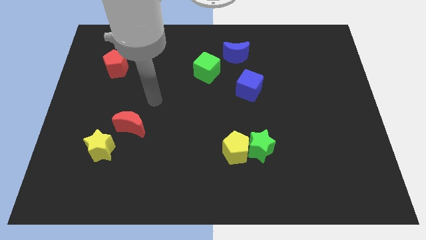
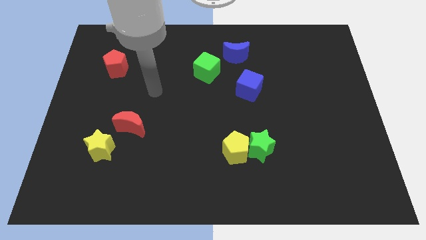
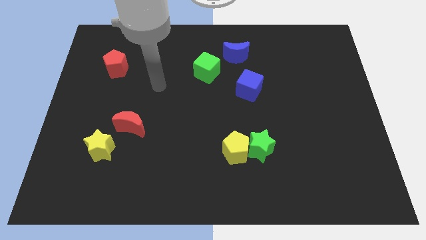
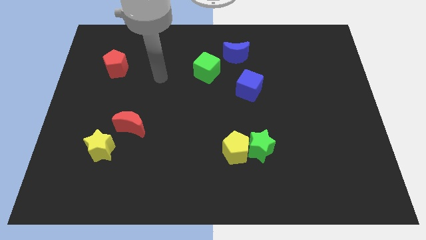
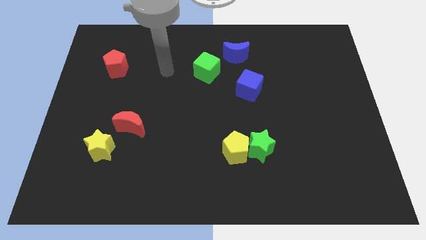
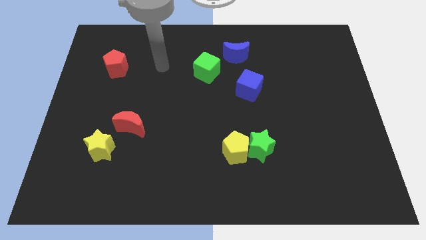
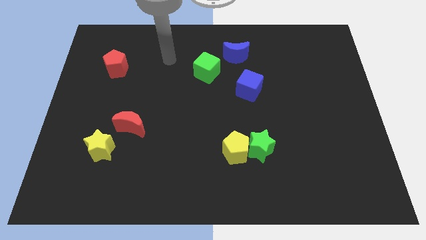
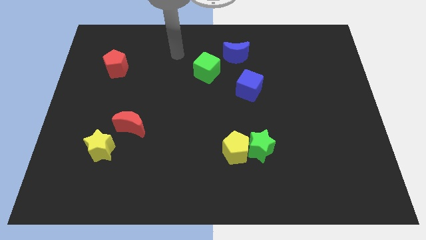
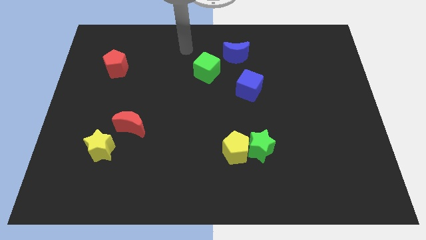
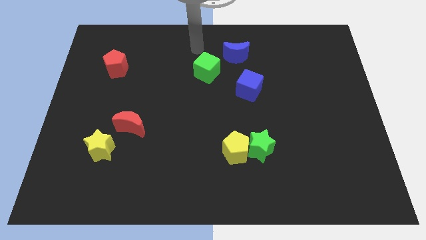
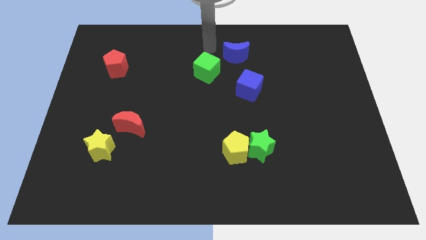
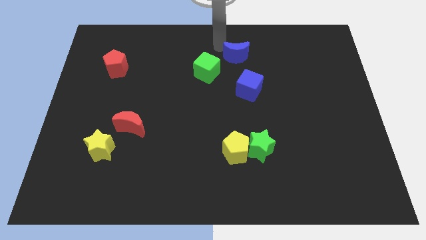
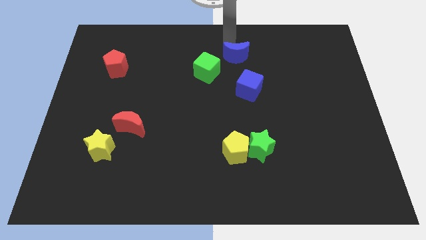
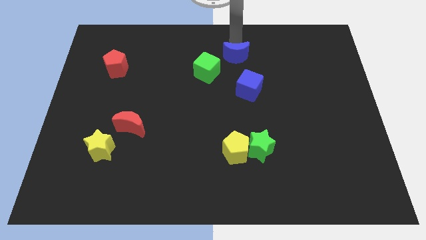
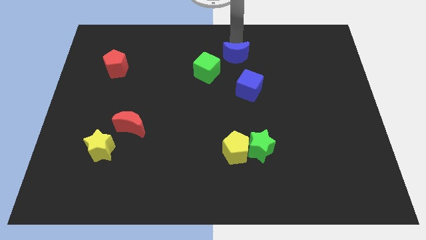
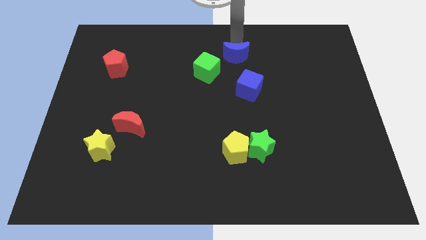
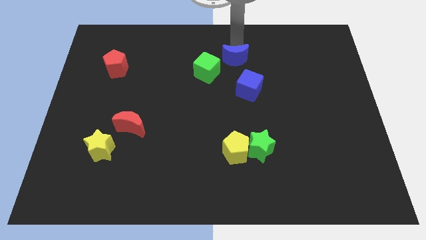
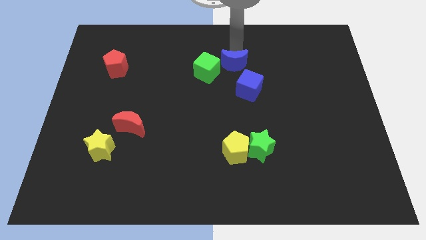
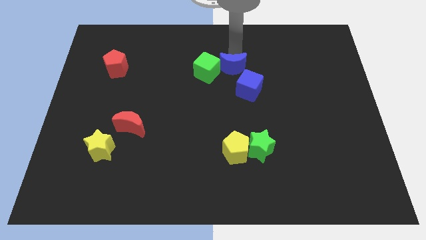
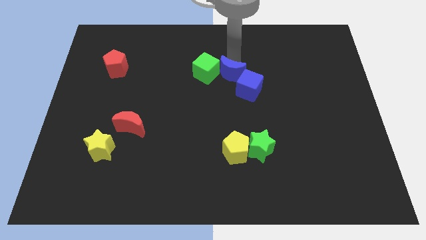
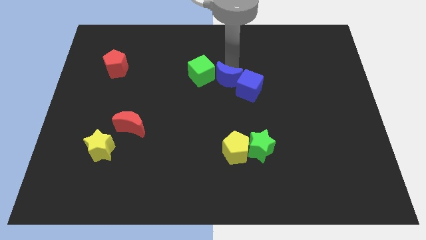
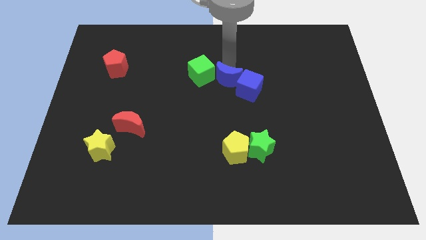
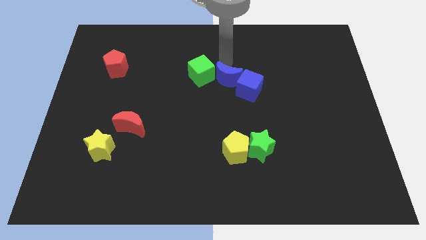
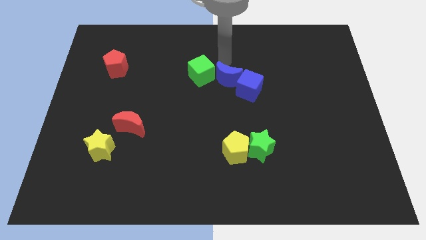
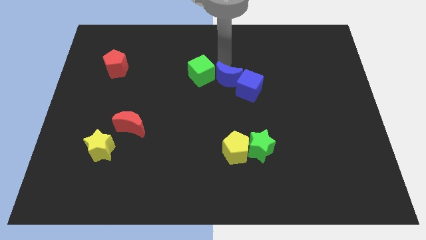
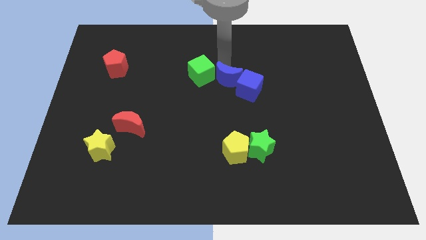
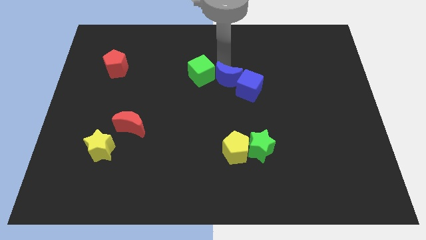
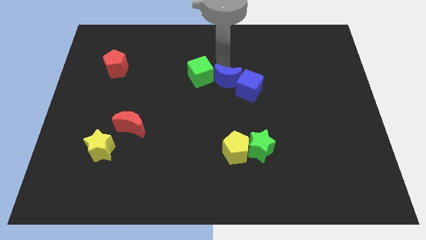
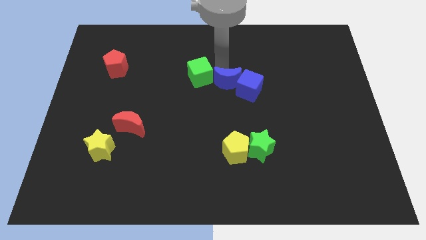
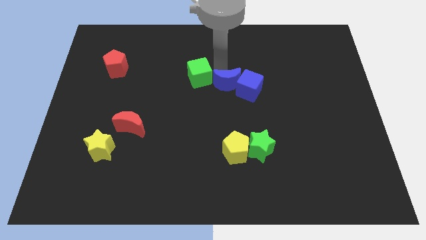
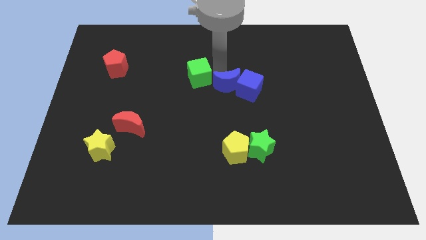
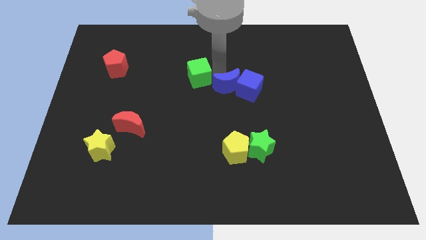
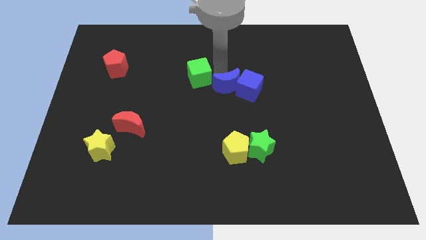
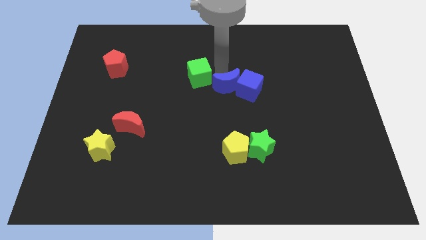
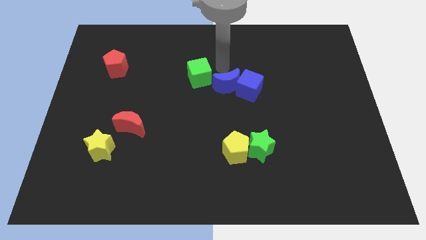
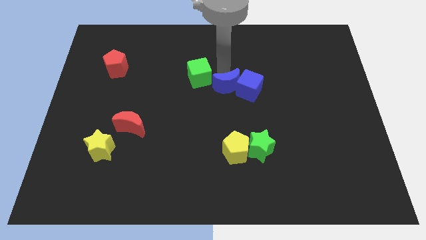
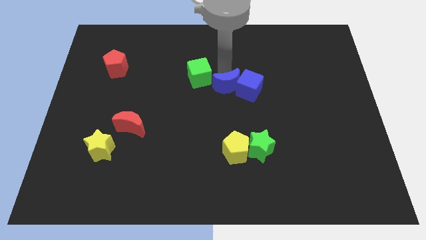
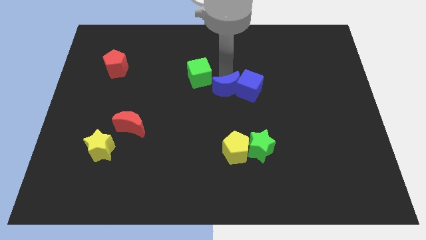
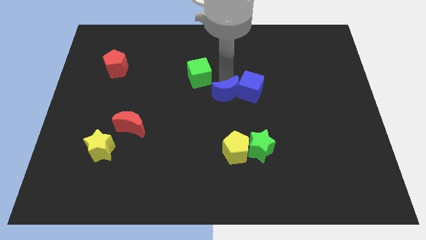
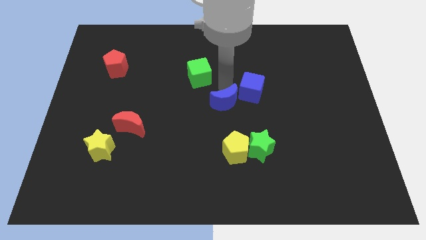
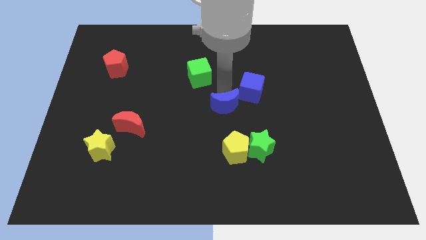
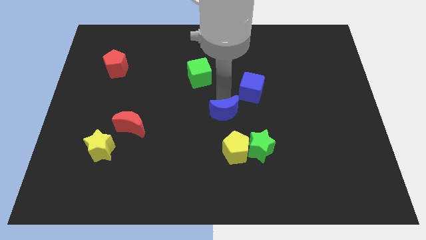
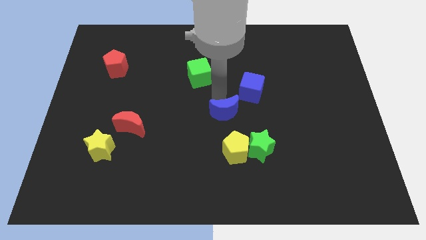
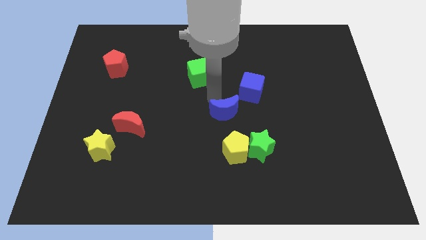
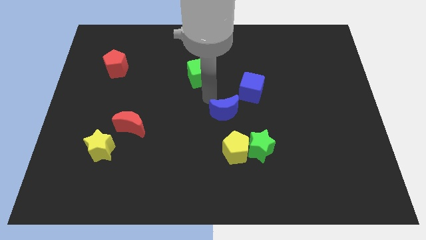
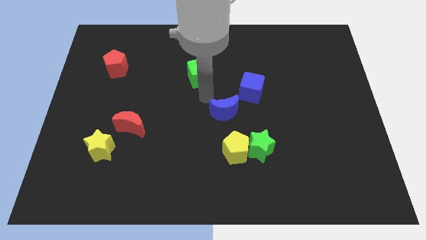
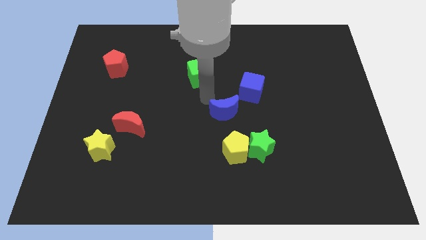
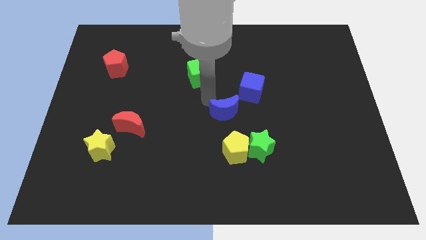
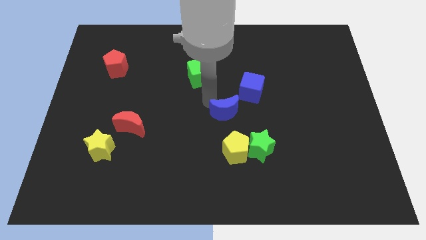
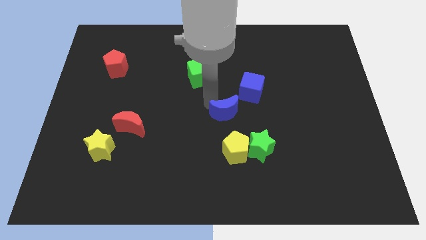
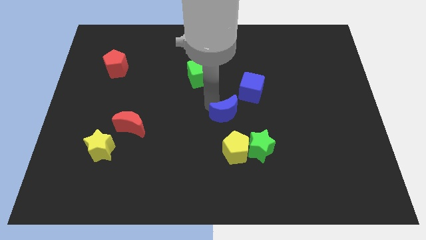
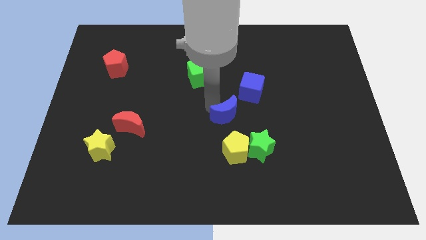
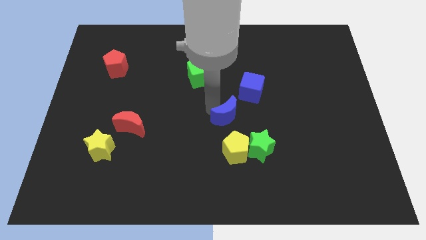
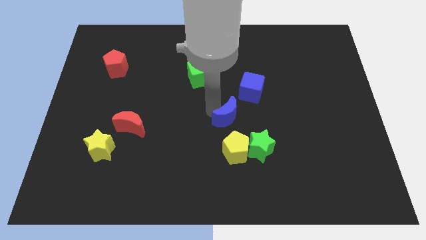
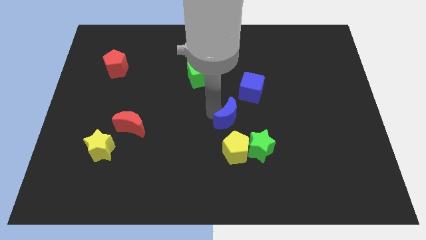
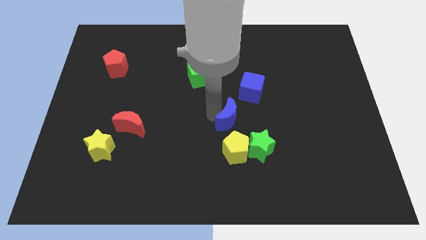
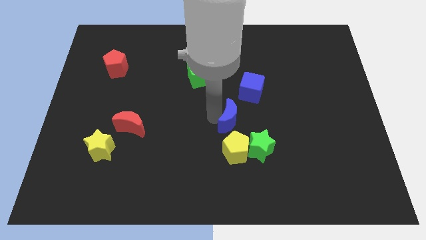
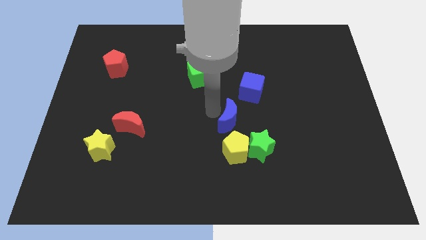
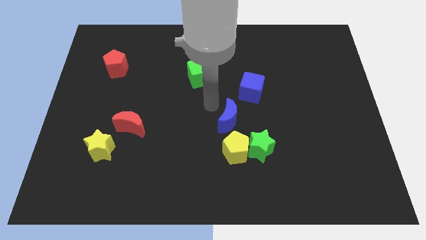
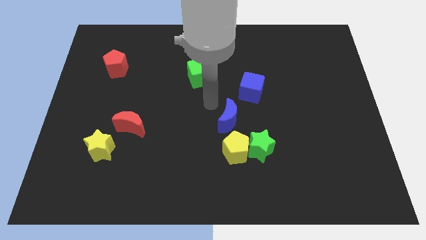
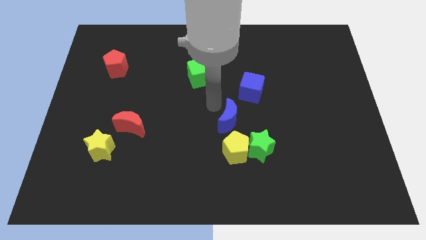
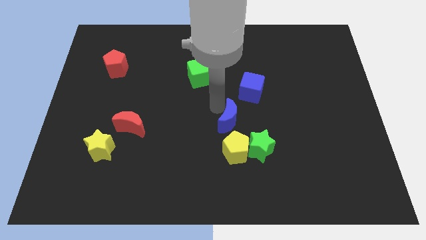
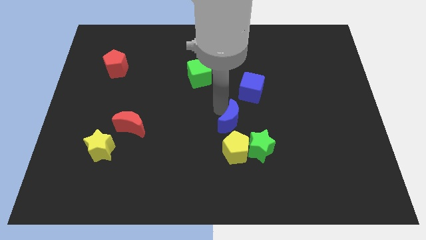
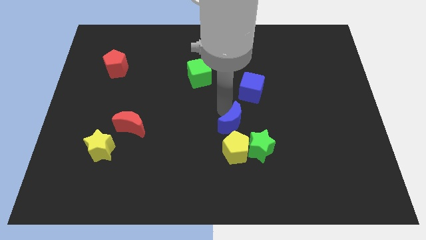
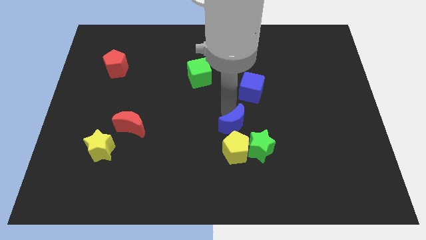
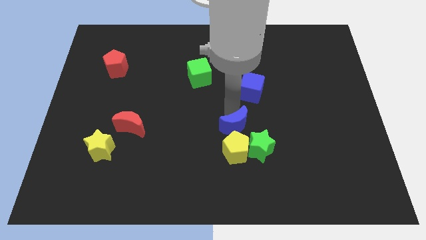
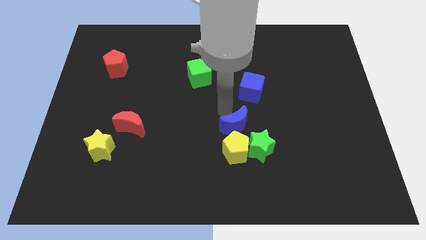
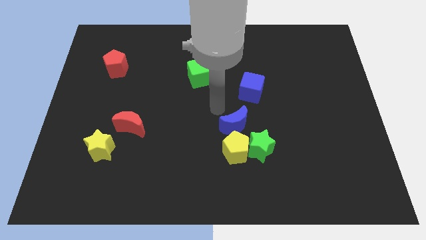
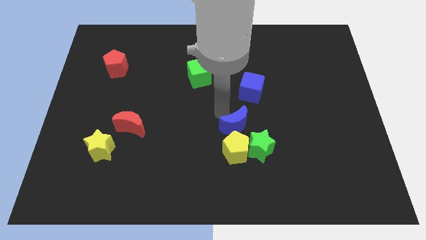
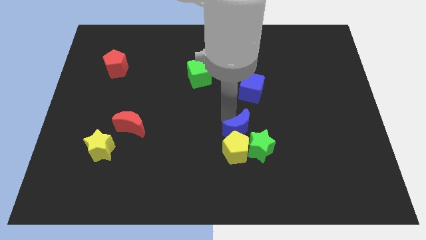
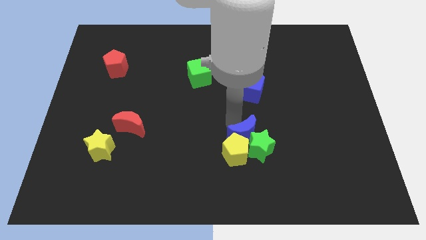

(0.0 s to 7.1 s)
push the blue moon next to the green star
